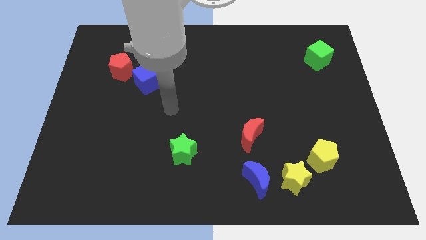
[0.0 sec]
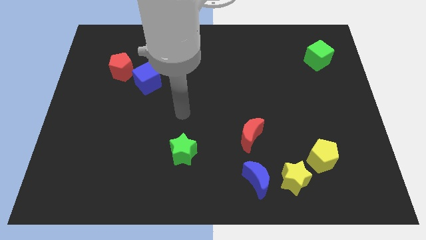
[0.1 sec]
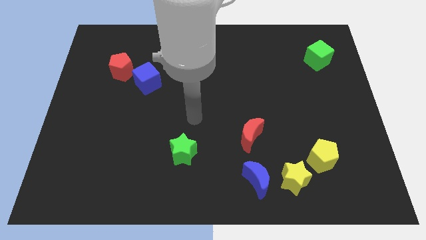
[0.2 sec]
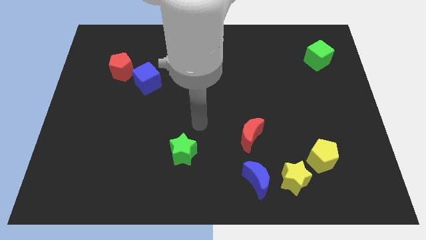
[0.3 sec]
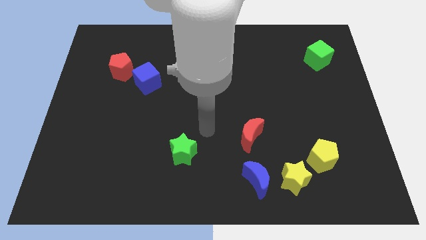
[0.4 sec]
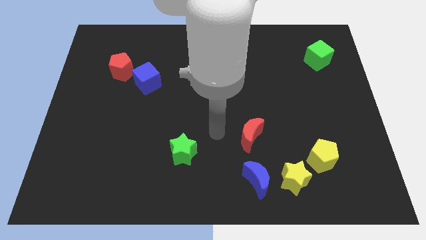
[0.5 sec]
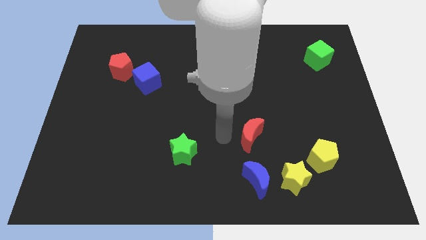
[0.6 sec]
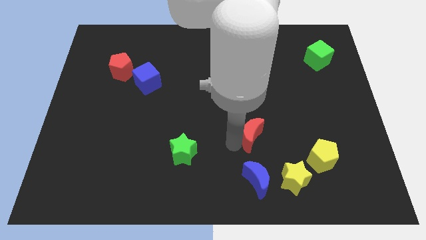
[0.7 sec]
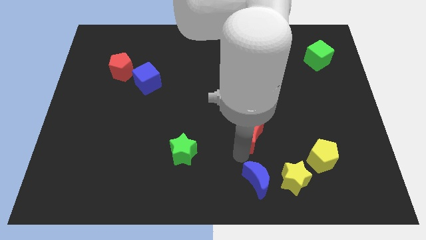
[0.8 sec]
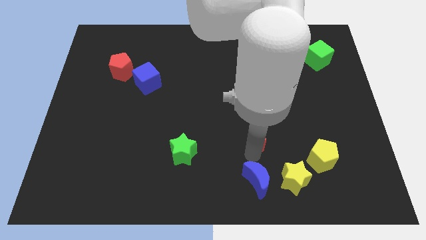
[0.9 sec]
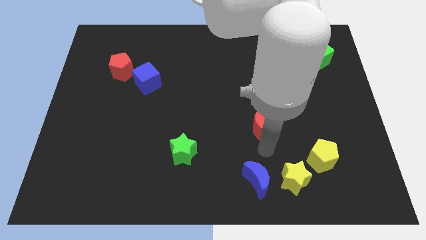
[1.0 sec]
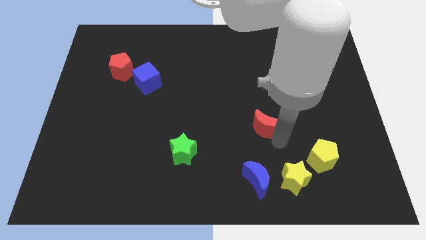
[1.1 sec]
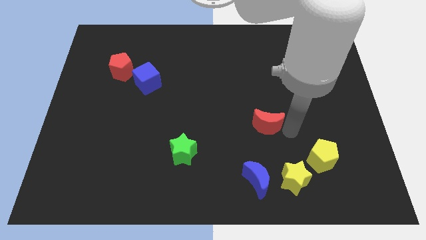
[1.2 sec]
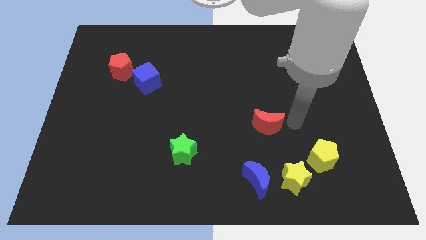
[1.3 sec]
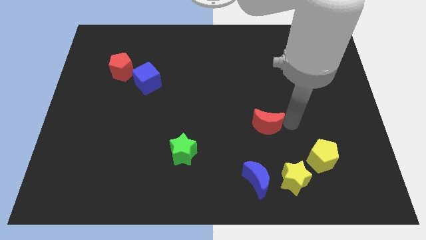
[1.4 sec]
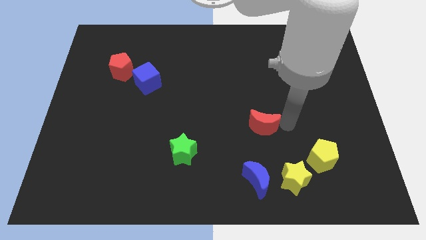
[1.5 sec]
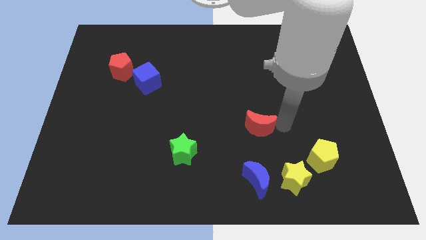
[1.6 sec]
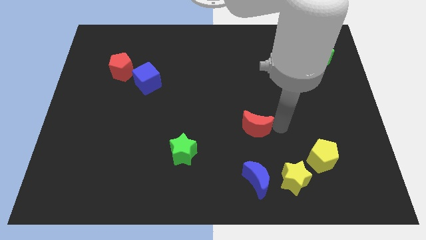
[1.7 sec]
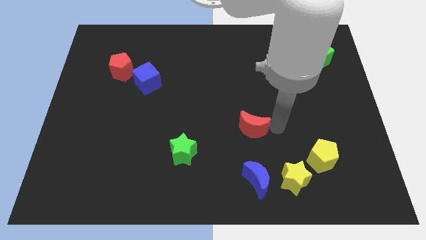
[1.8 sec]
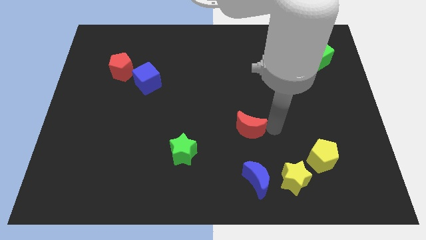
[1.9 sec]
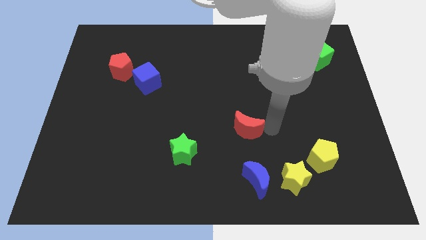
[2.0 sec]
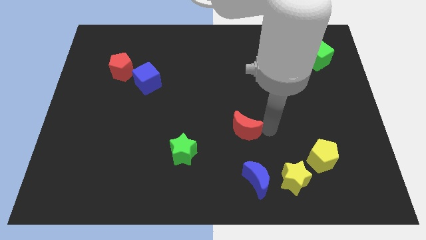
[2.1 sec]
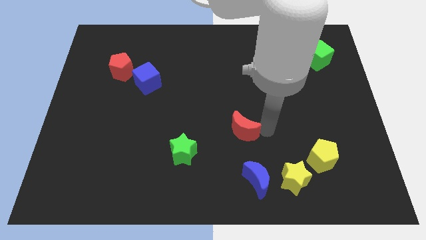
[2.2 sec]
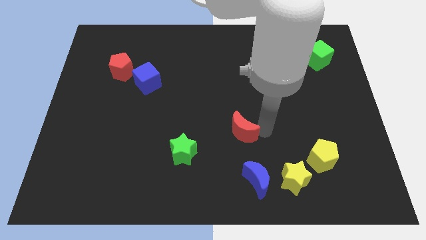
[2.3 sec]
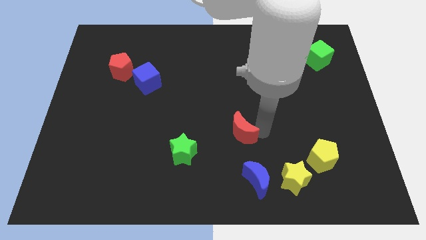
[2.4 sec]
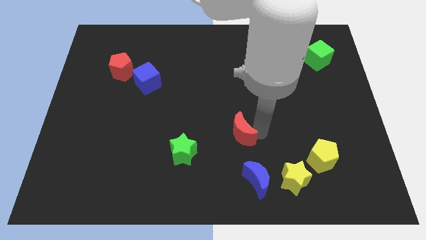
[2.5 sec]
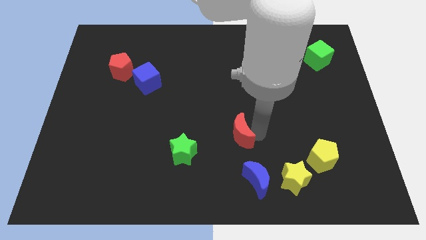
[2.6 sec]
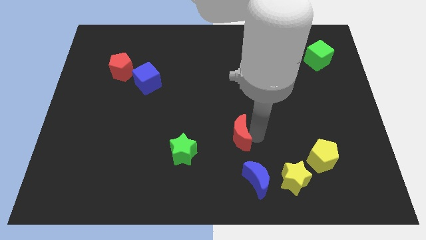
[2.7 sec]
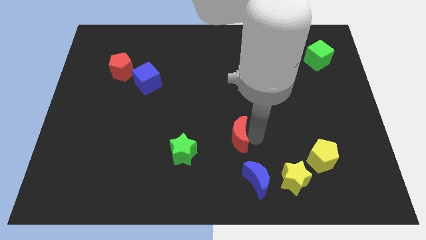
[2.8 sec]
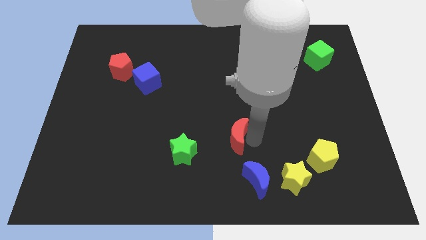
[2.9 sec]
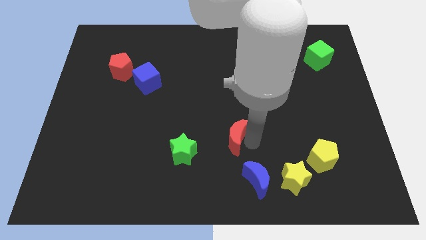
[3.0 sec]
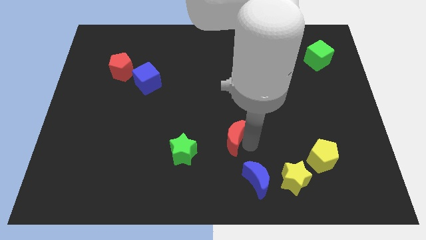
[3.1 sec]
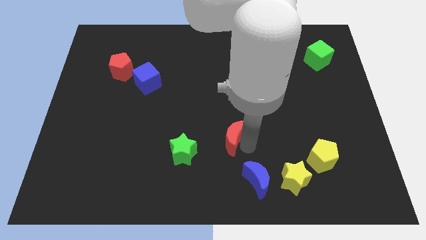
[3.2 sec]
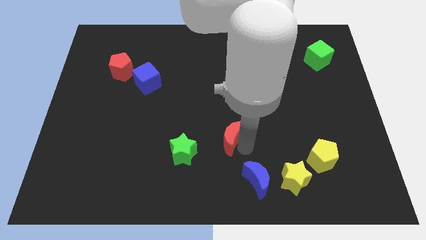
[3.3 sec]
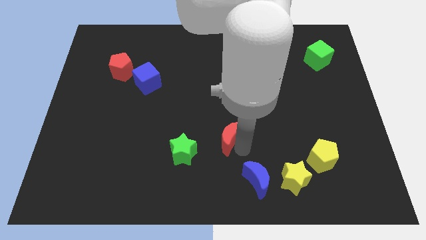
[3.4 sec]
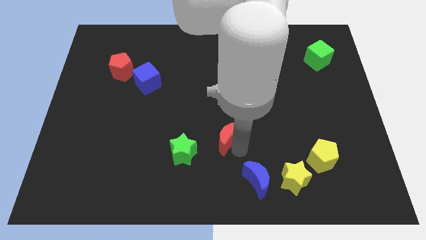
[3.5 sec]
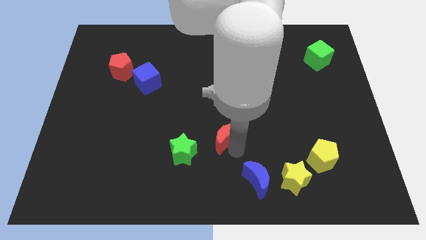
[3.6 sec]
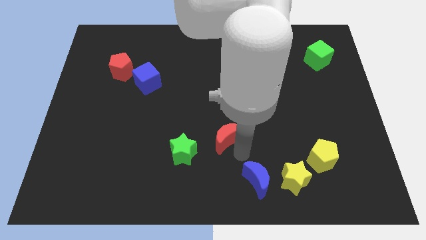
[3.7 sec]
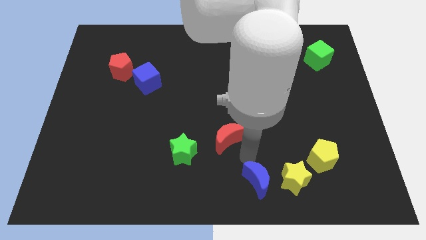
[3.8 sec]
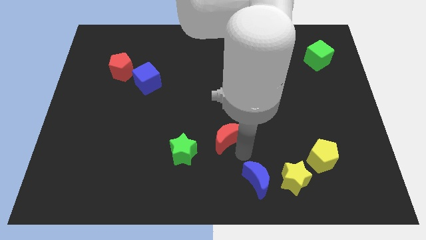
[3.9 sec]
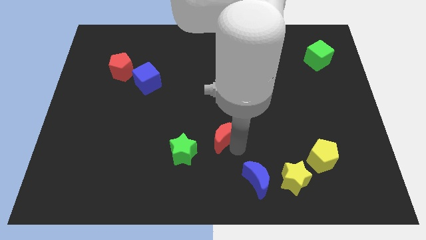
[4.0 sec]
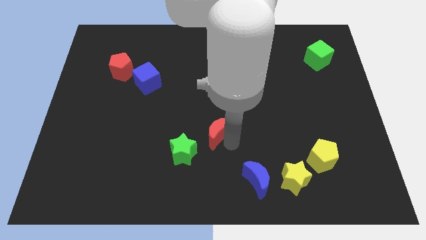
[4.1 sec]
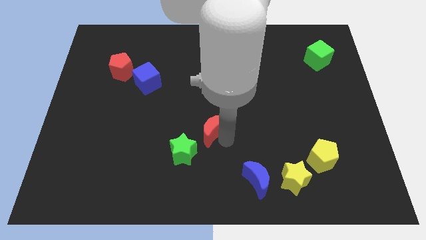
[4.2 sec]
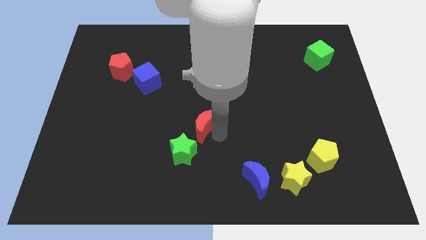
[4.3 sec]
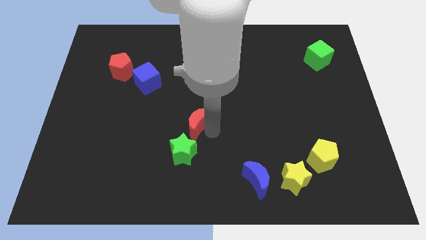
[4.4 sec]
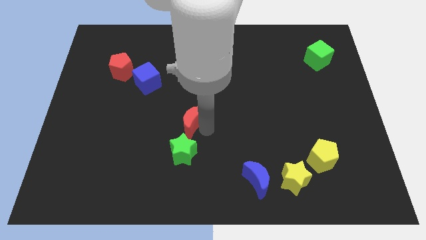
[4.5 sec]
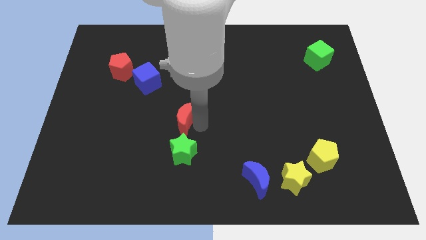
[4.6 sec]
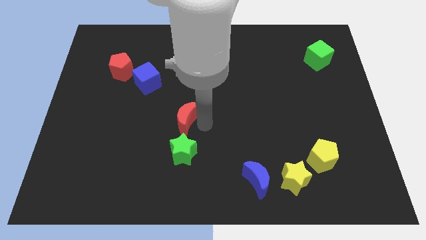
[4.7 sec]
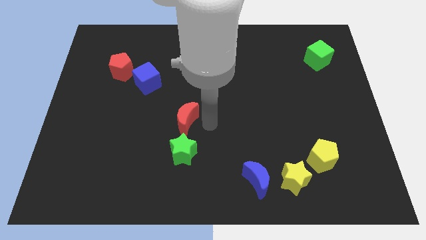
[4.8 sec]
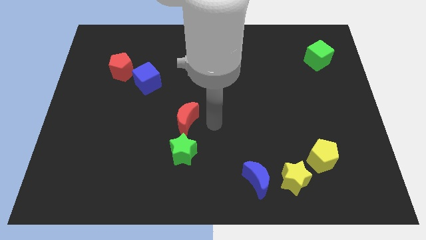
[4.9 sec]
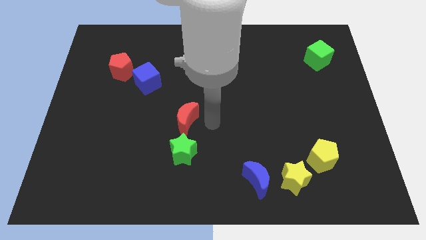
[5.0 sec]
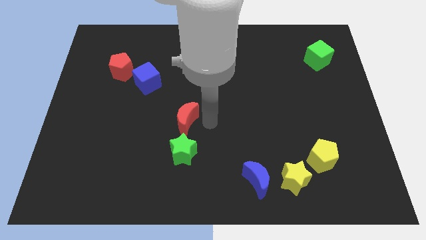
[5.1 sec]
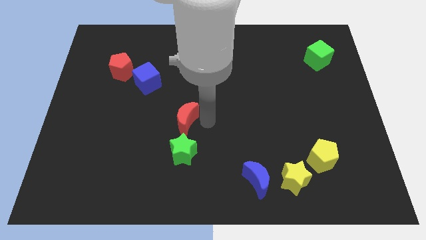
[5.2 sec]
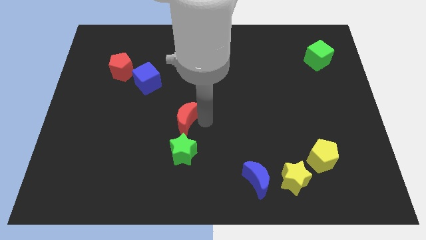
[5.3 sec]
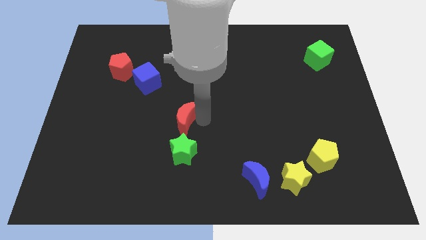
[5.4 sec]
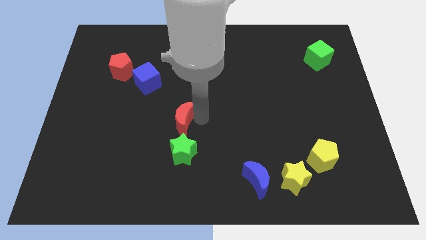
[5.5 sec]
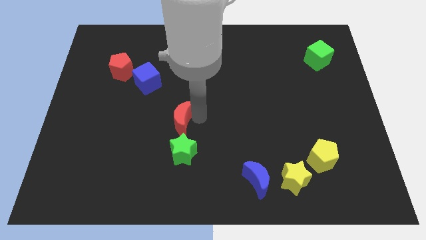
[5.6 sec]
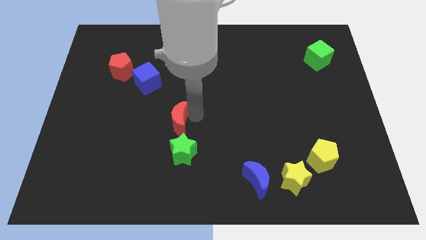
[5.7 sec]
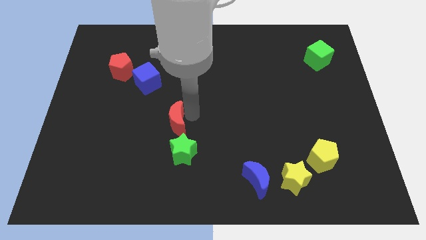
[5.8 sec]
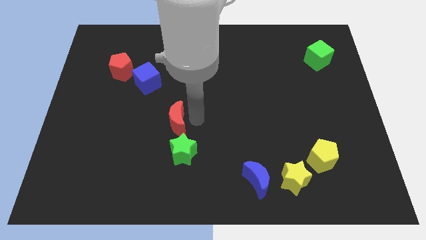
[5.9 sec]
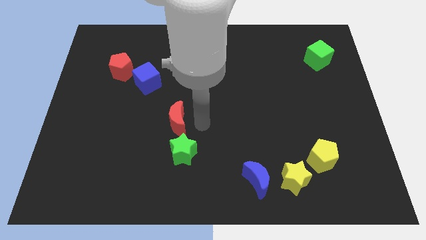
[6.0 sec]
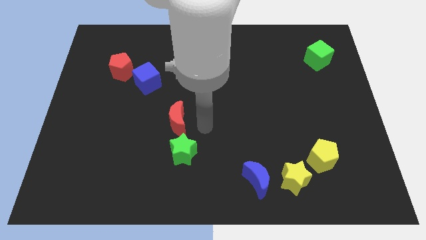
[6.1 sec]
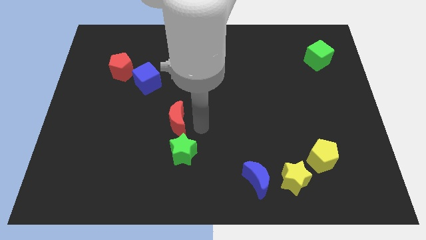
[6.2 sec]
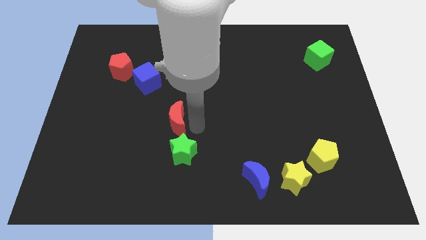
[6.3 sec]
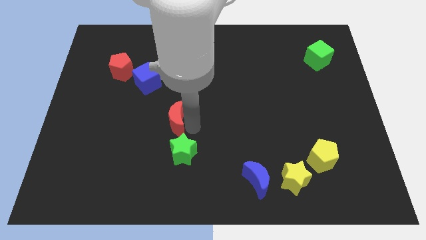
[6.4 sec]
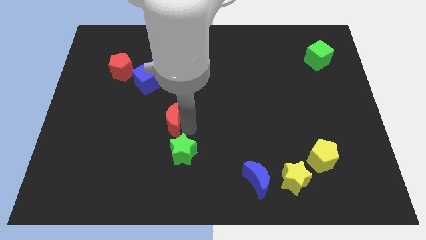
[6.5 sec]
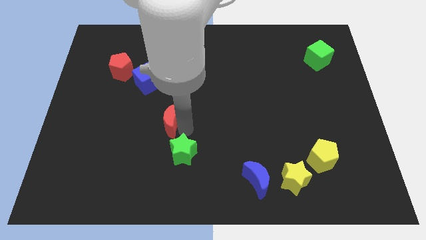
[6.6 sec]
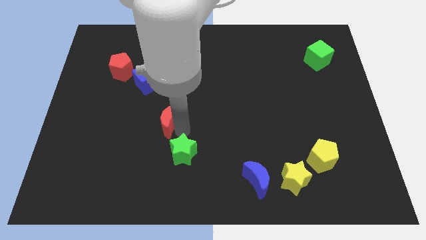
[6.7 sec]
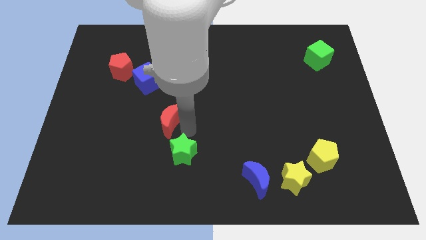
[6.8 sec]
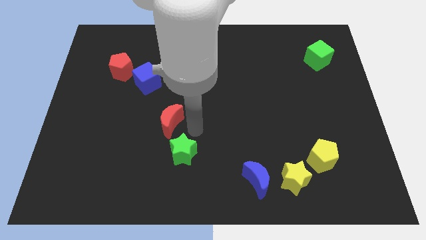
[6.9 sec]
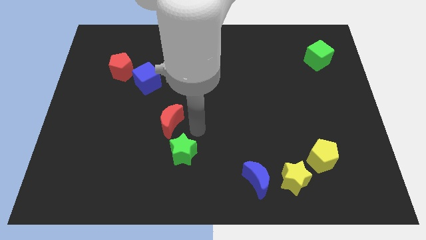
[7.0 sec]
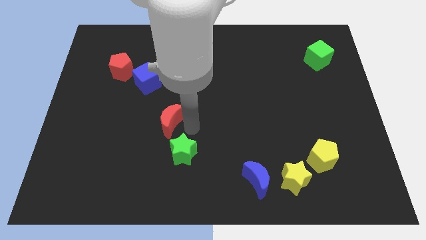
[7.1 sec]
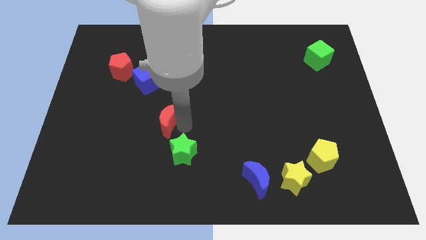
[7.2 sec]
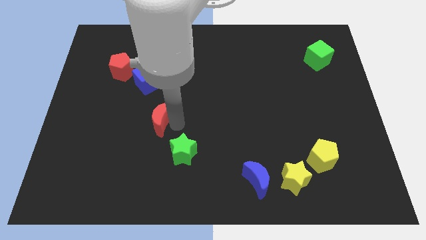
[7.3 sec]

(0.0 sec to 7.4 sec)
put the red moon to the bottom side of the blue cube
